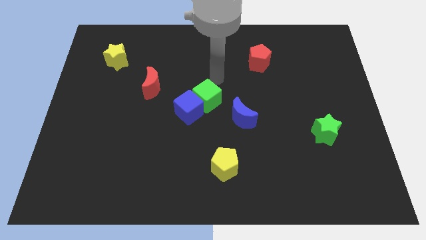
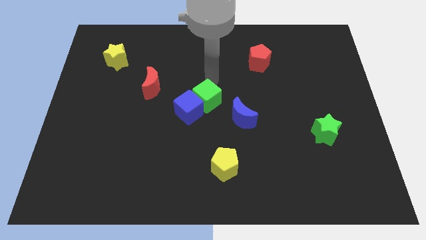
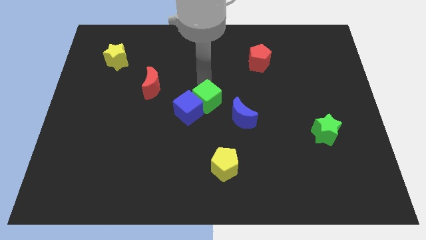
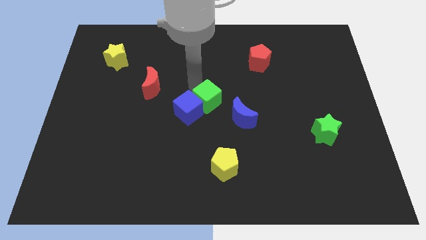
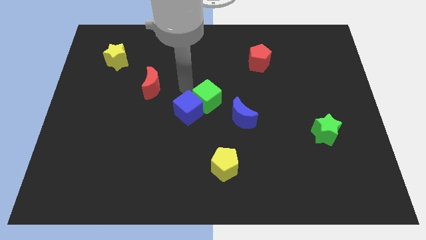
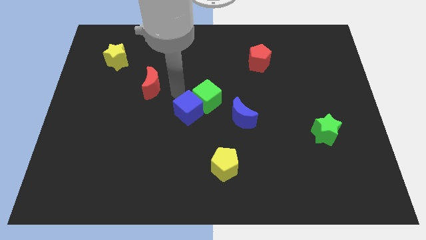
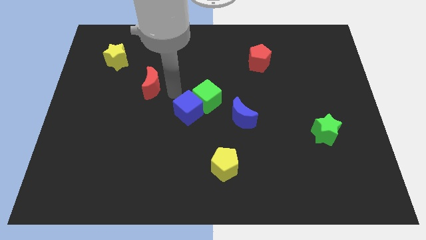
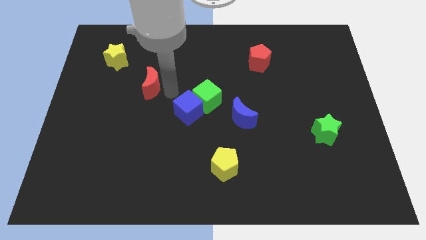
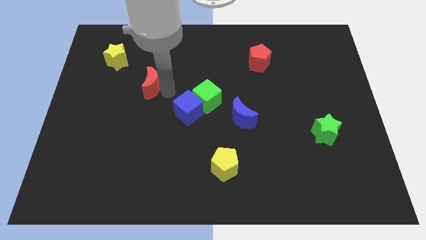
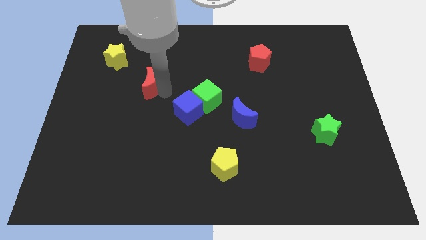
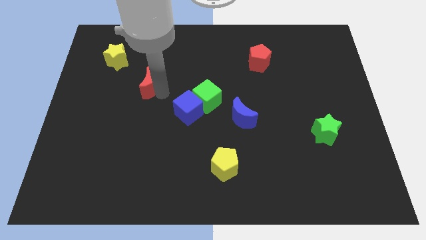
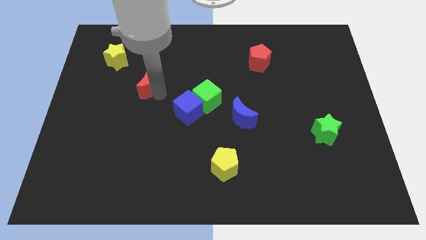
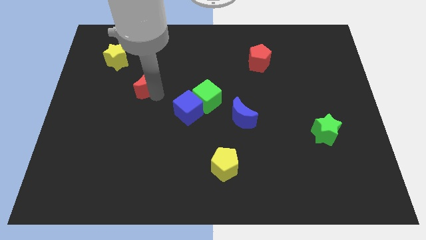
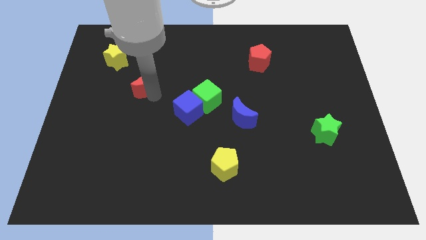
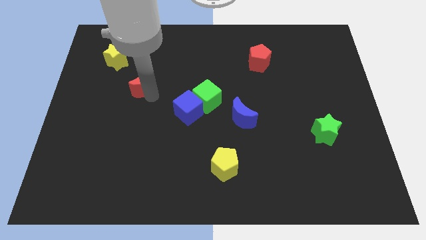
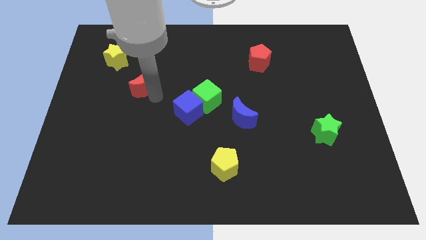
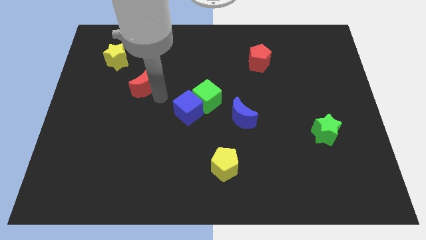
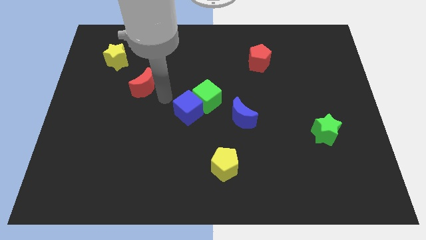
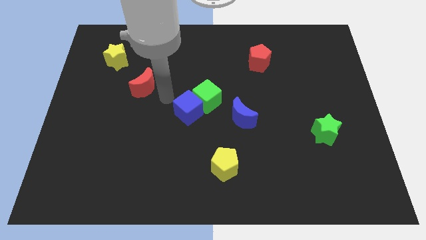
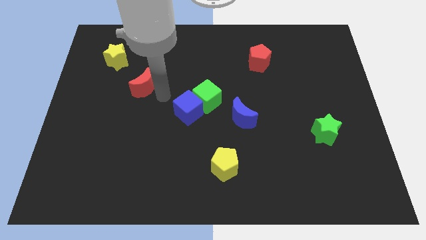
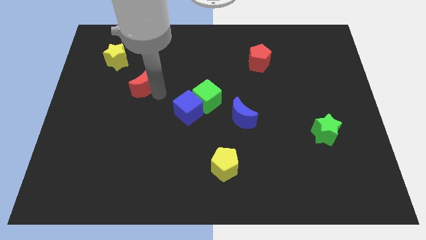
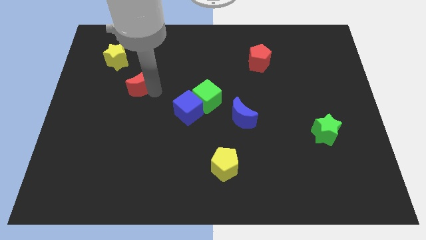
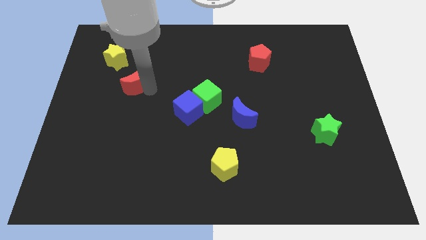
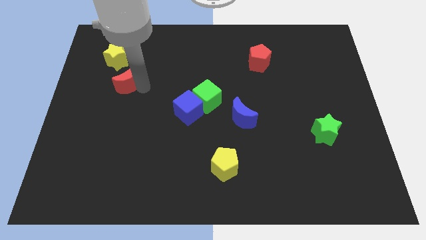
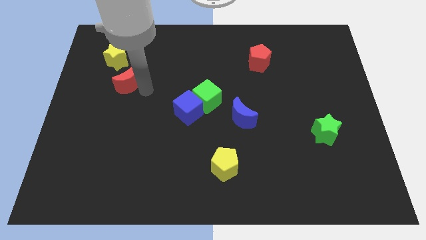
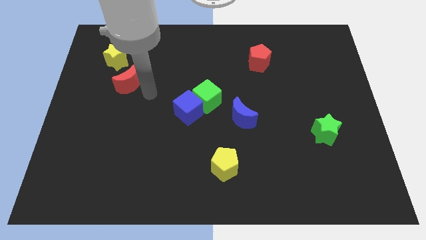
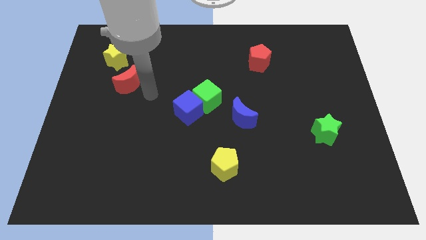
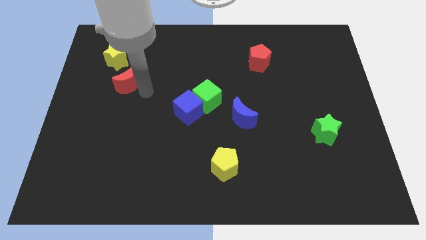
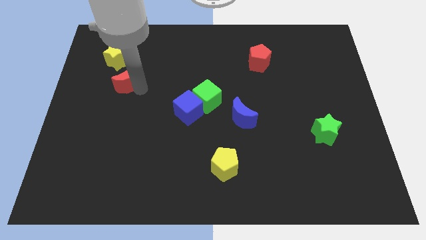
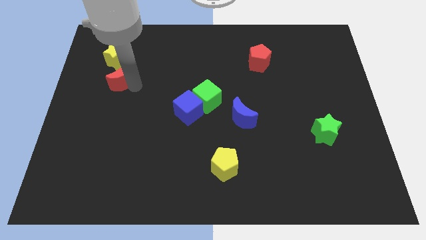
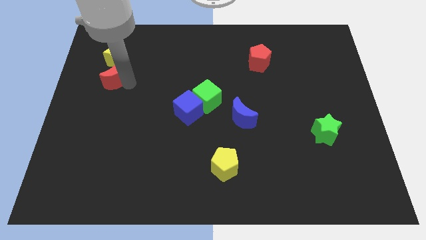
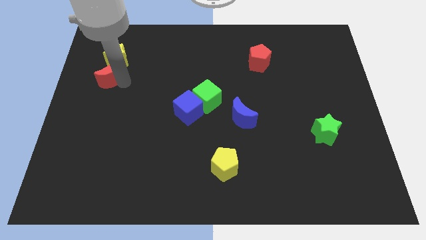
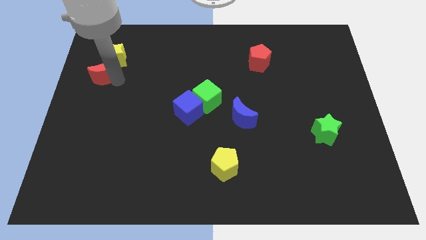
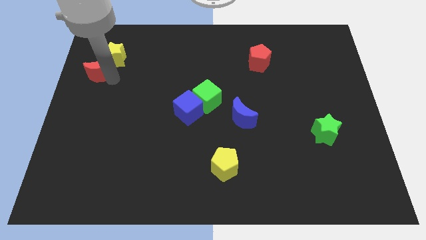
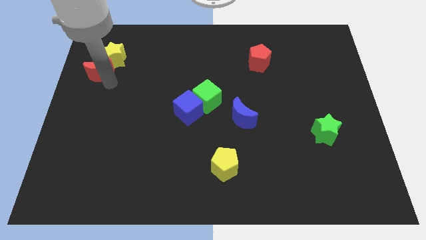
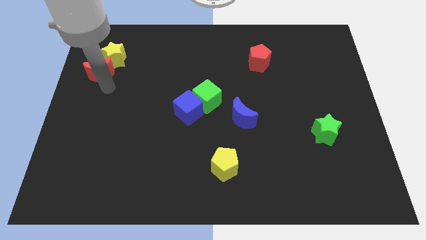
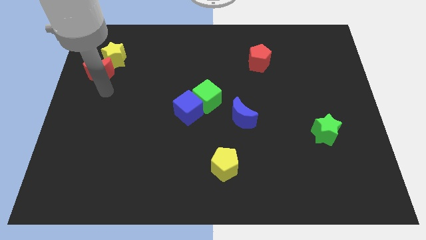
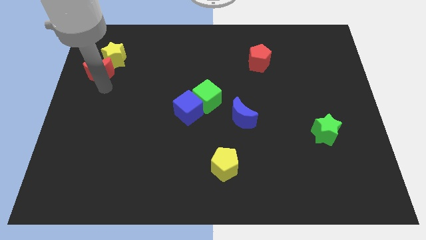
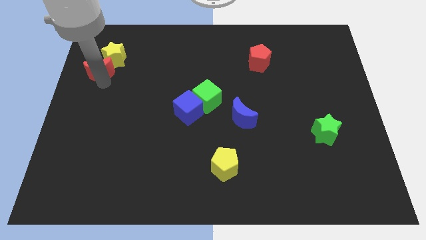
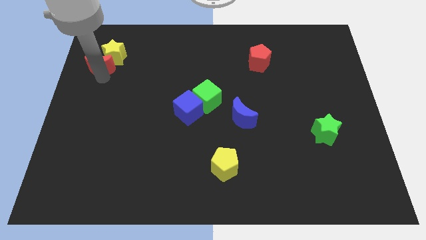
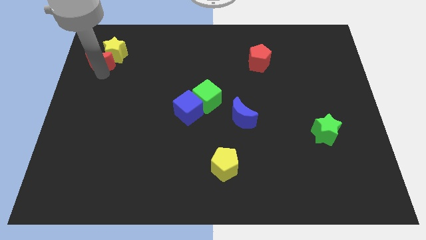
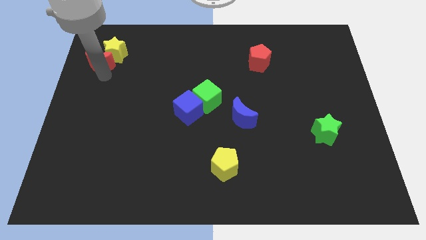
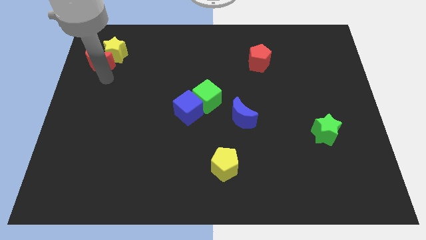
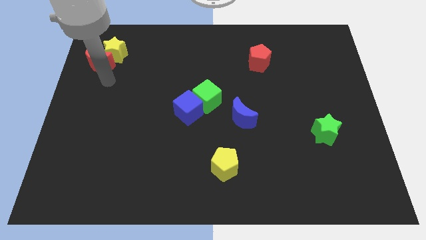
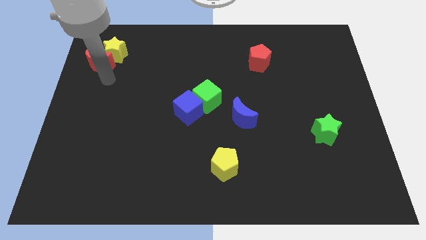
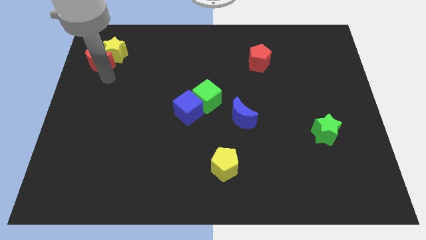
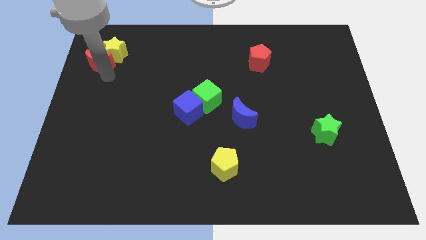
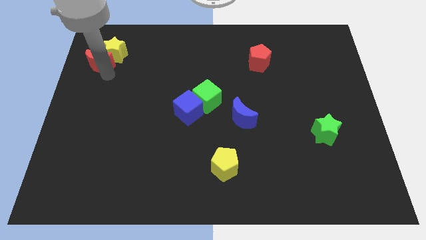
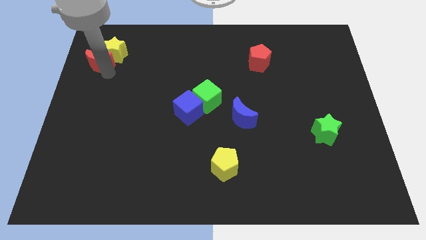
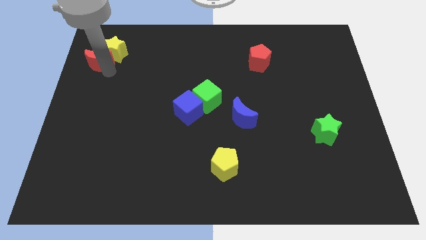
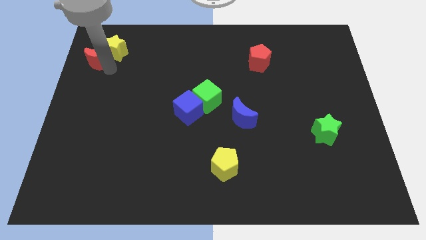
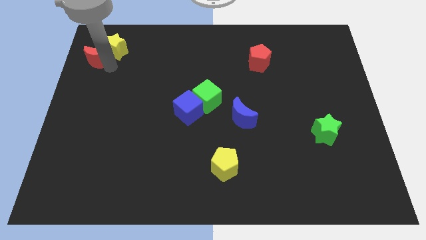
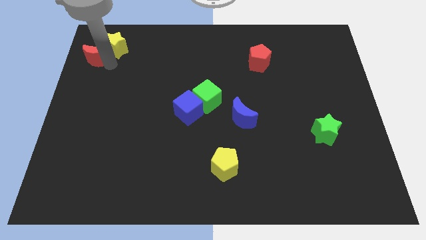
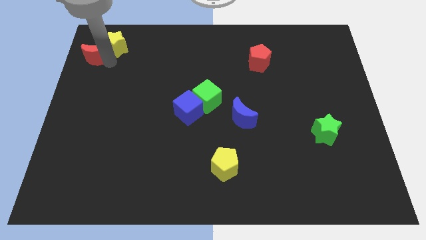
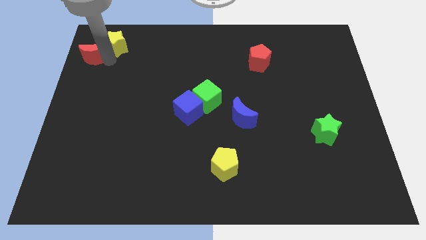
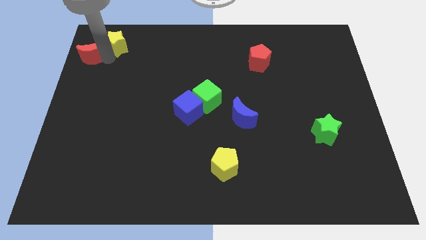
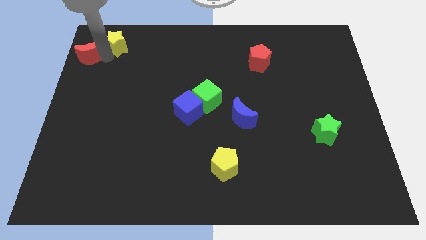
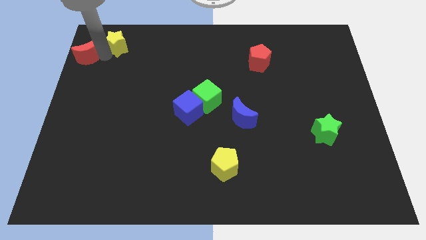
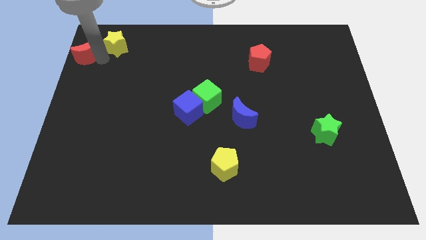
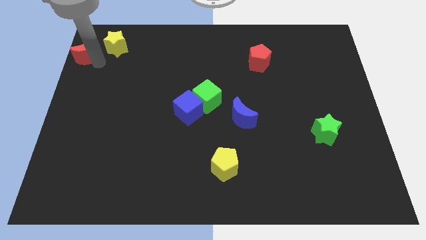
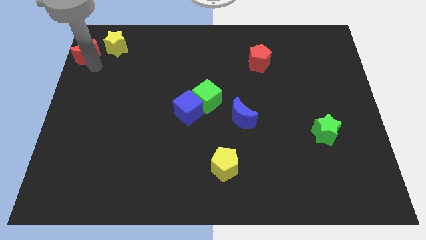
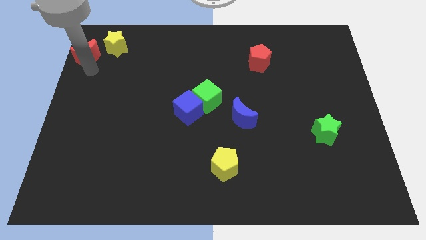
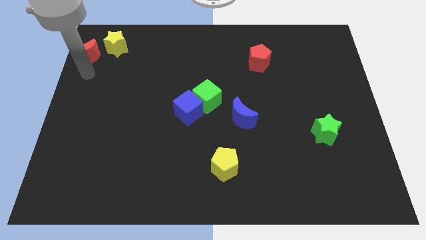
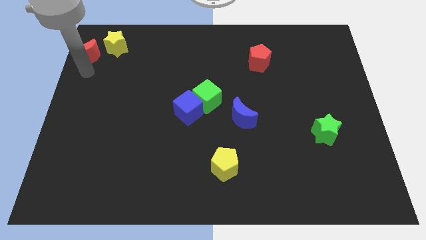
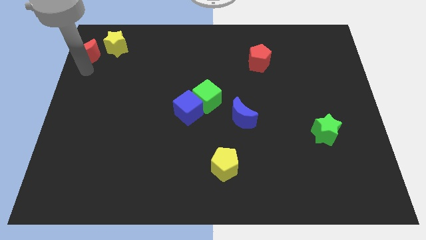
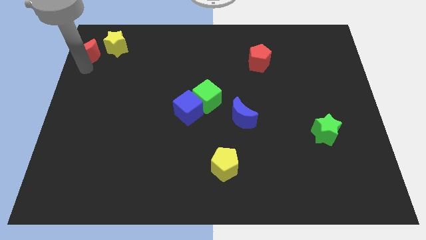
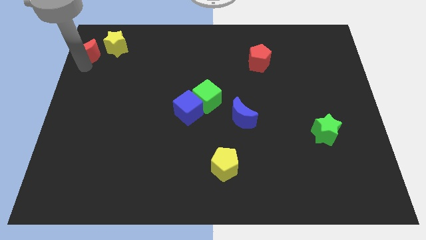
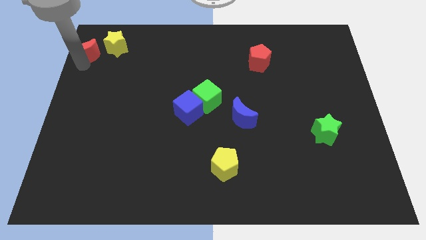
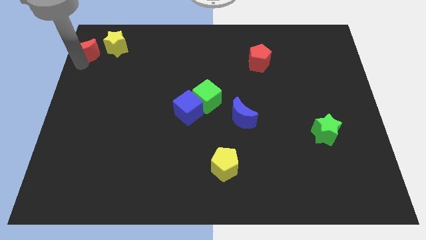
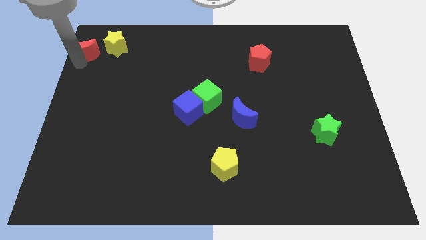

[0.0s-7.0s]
put the red moon to the upper left corner

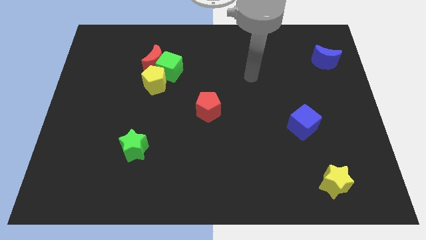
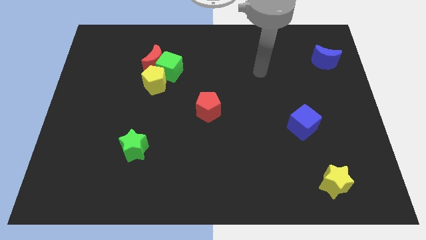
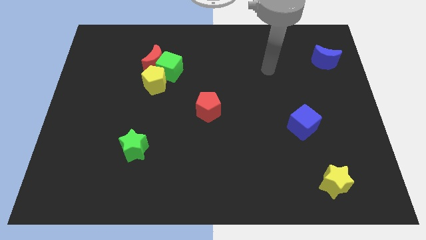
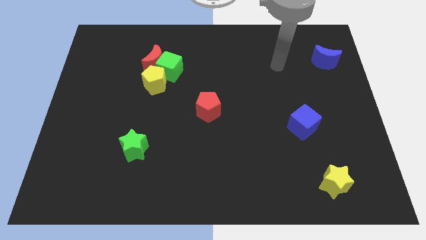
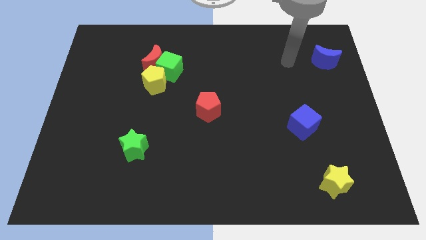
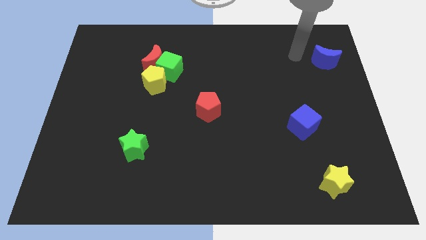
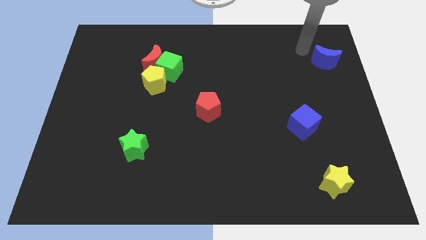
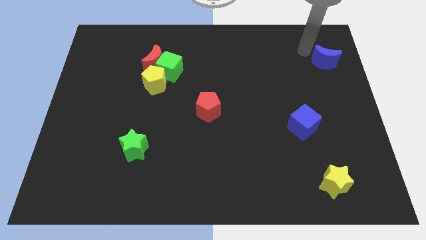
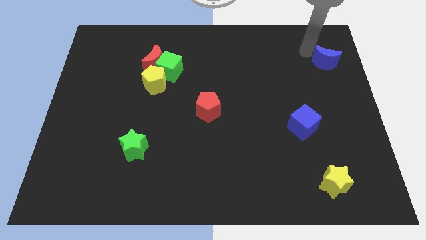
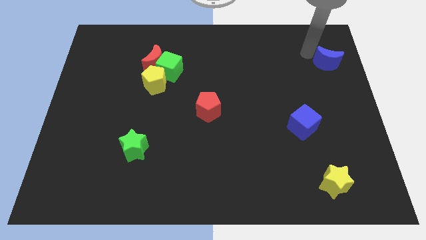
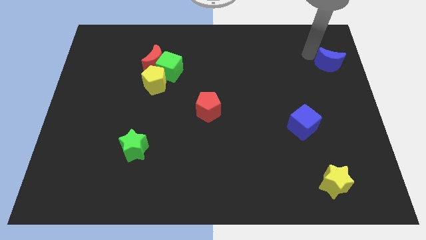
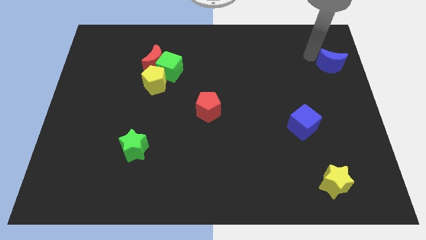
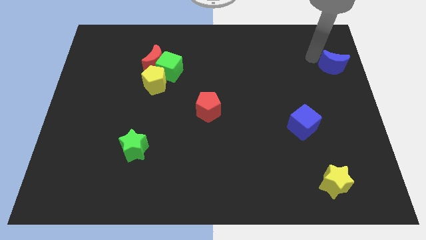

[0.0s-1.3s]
push the blue moon to the center right
